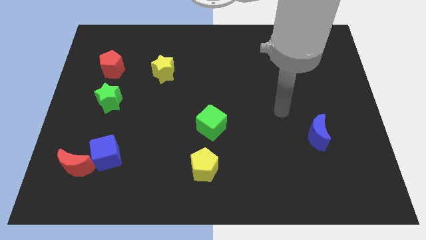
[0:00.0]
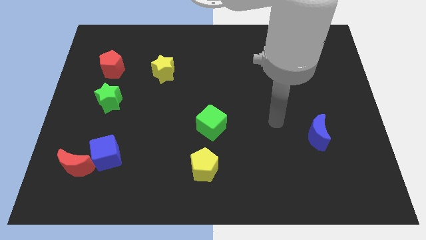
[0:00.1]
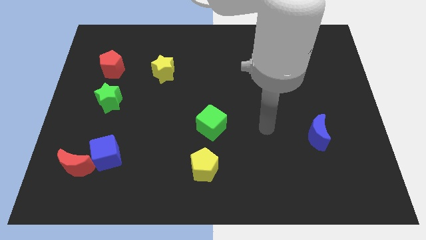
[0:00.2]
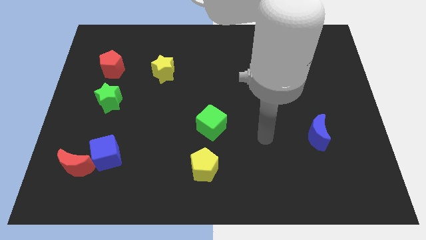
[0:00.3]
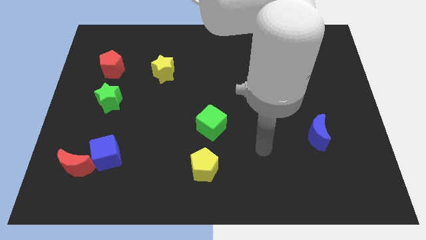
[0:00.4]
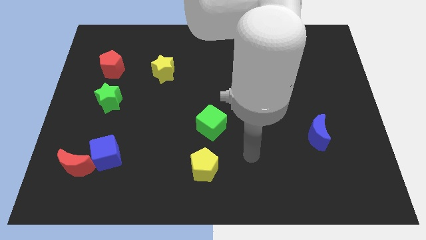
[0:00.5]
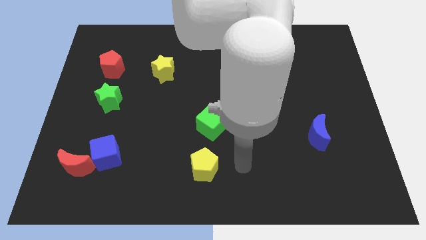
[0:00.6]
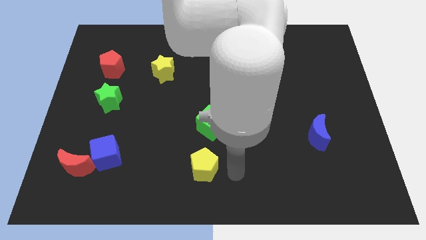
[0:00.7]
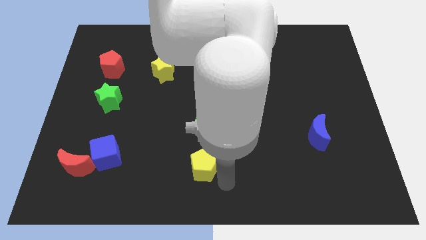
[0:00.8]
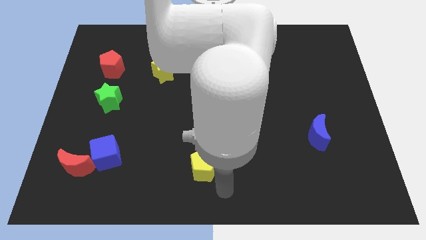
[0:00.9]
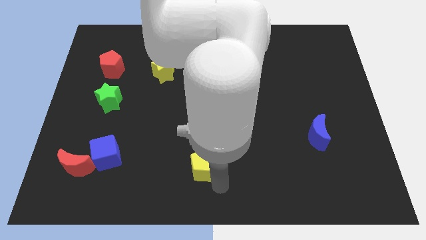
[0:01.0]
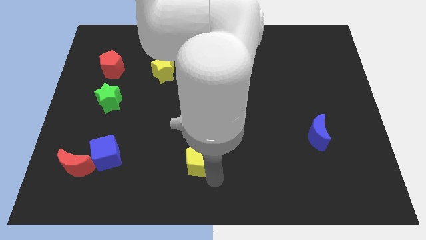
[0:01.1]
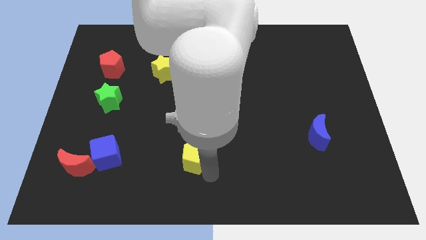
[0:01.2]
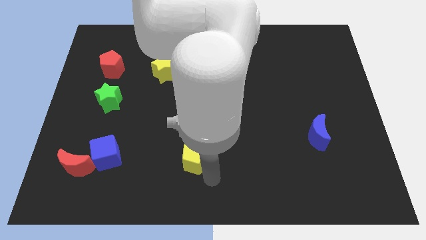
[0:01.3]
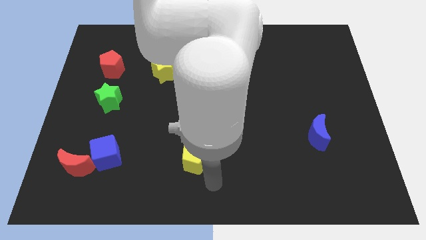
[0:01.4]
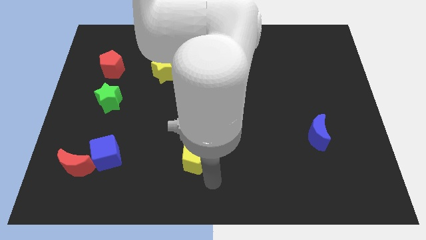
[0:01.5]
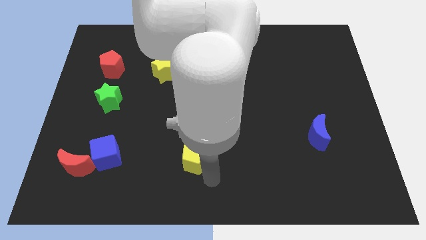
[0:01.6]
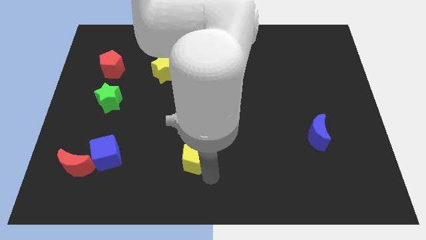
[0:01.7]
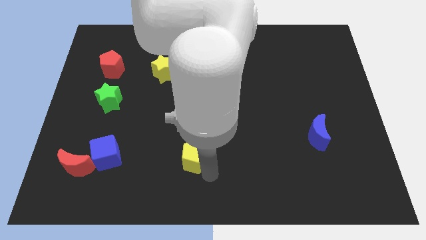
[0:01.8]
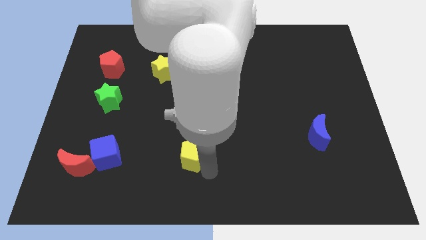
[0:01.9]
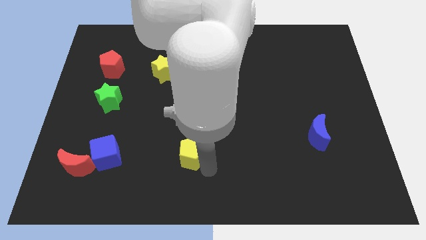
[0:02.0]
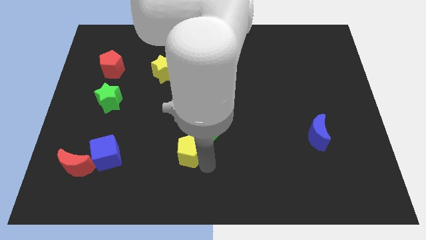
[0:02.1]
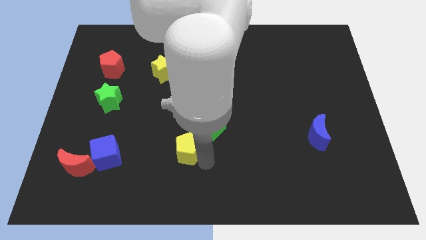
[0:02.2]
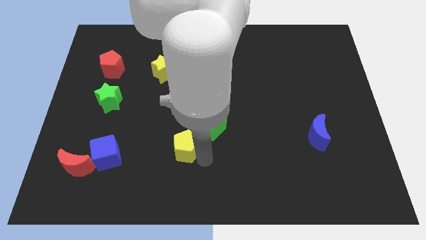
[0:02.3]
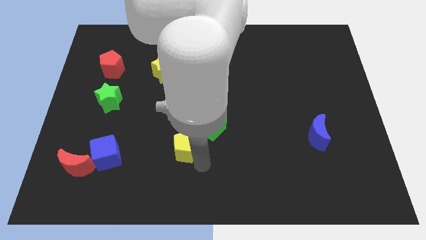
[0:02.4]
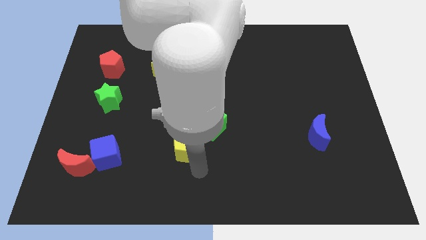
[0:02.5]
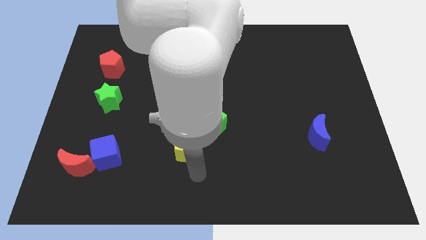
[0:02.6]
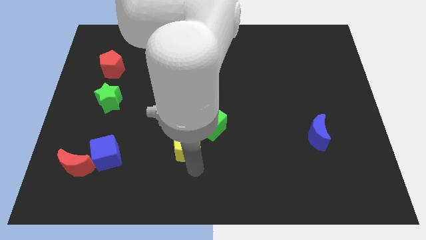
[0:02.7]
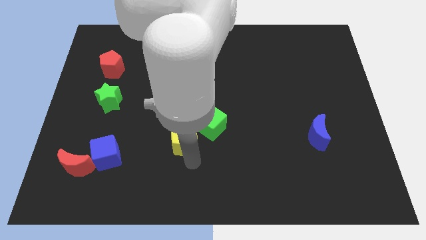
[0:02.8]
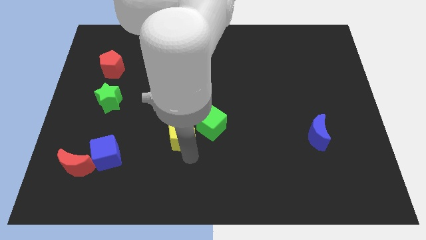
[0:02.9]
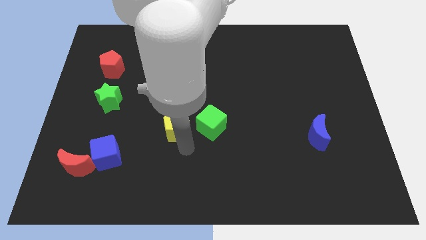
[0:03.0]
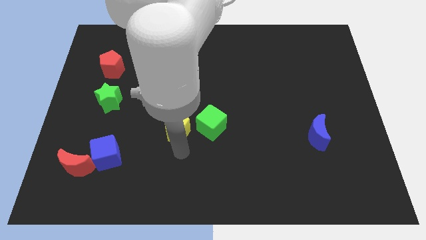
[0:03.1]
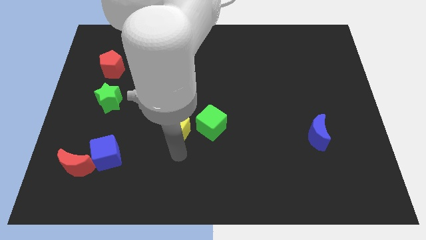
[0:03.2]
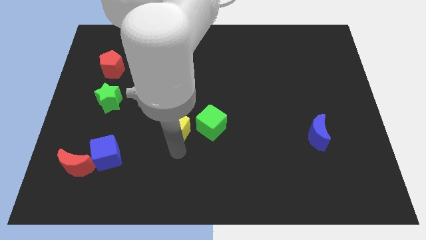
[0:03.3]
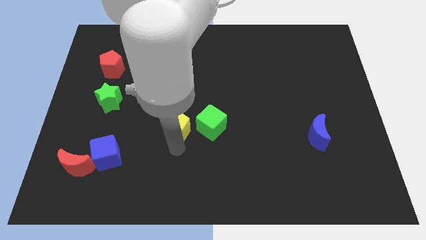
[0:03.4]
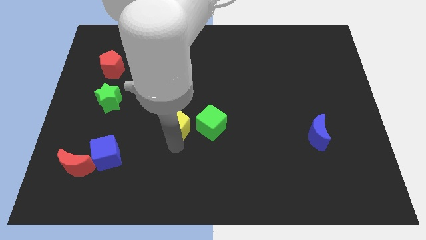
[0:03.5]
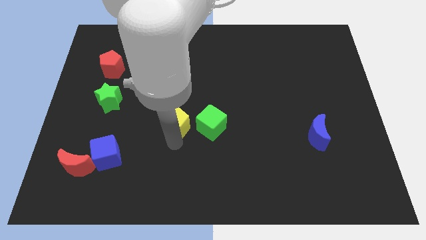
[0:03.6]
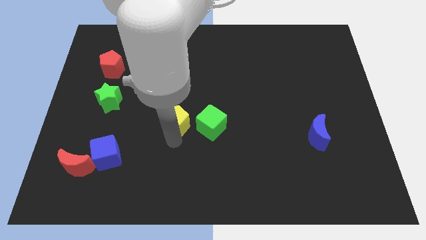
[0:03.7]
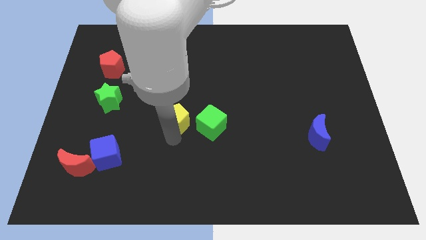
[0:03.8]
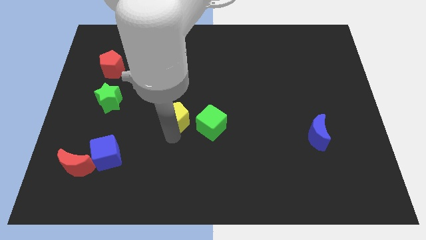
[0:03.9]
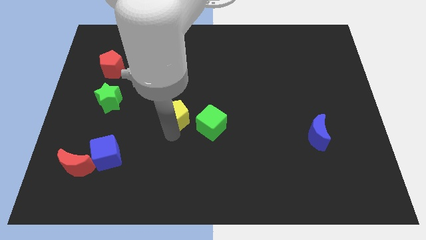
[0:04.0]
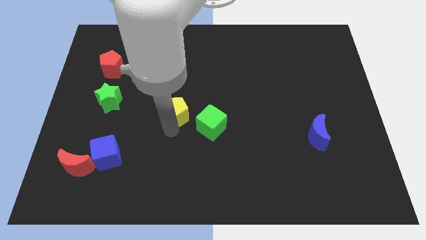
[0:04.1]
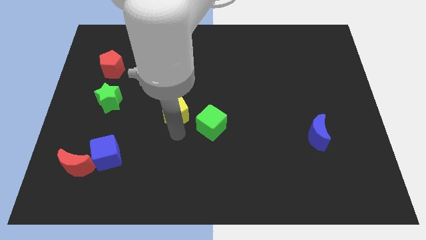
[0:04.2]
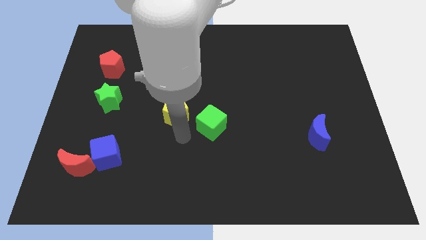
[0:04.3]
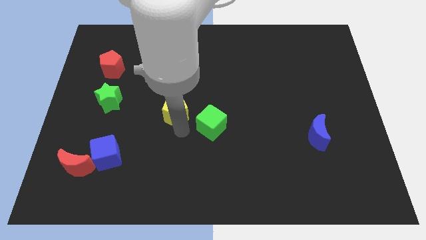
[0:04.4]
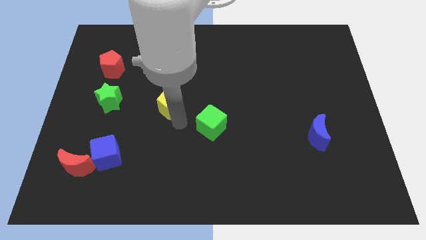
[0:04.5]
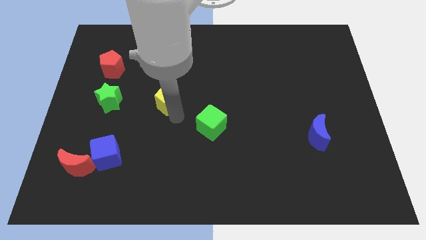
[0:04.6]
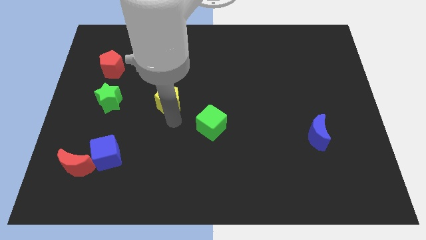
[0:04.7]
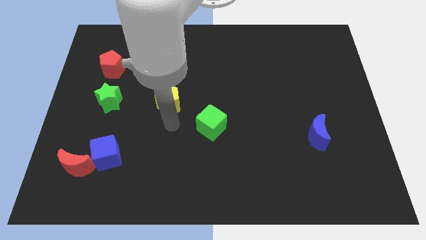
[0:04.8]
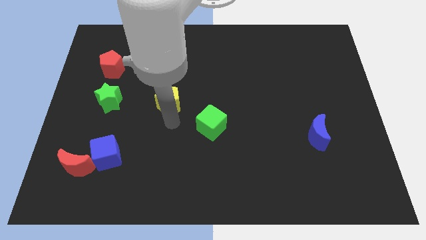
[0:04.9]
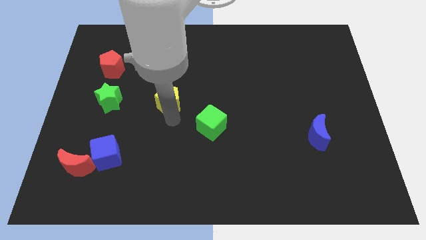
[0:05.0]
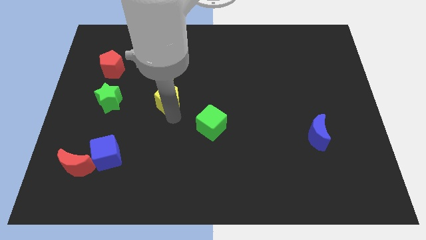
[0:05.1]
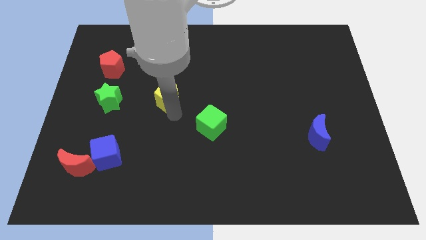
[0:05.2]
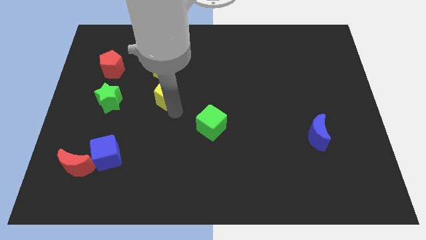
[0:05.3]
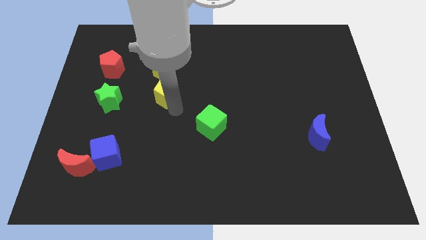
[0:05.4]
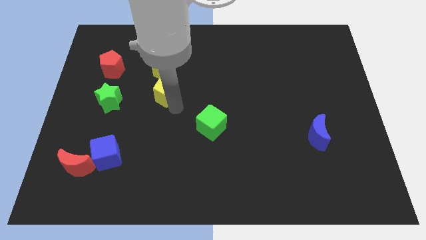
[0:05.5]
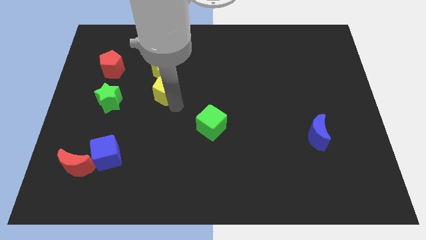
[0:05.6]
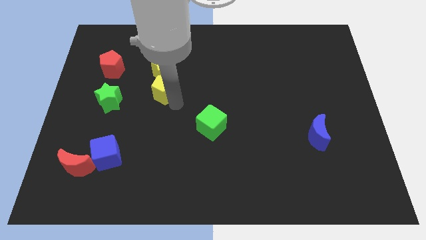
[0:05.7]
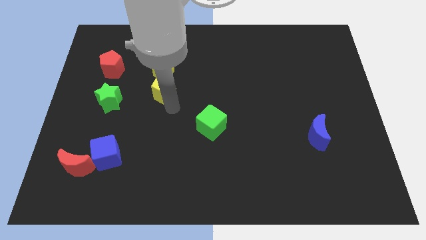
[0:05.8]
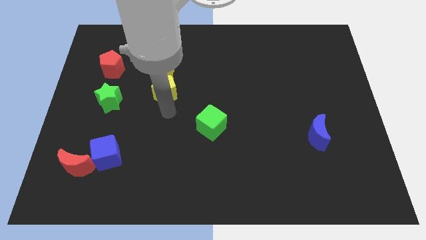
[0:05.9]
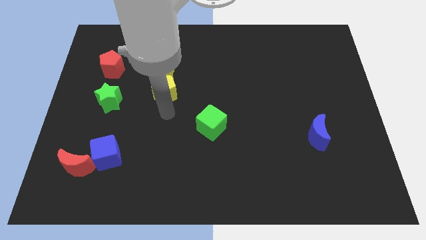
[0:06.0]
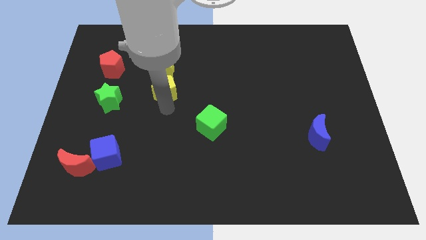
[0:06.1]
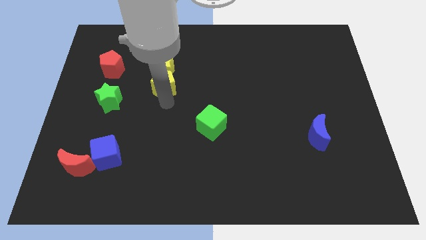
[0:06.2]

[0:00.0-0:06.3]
slide the yellow pentagon to the yellow star

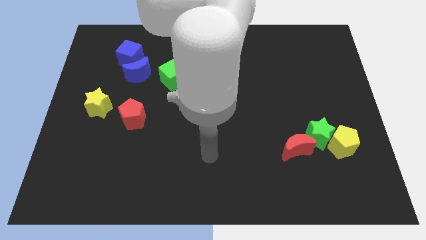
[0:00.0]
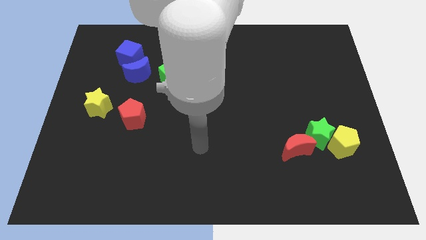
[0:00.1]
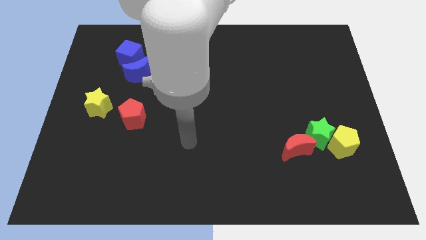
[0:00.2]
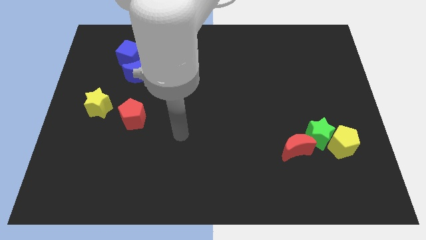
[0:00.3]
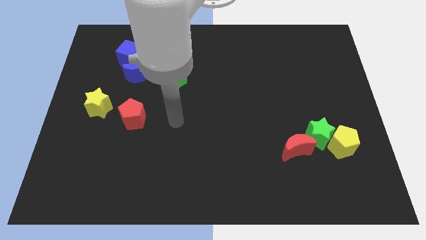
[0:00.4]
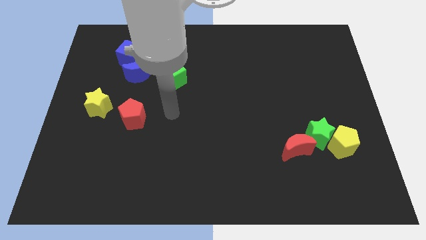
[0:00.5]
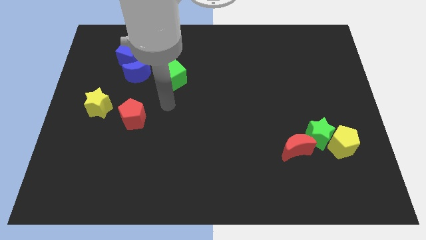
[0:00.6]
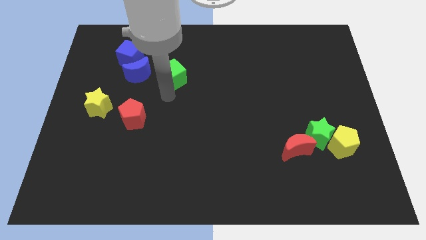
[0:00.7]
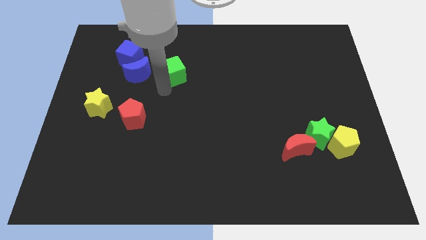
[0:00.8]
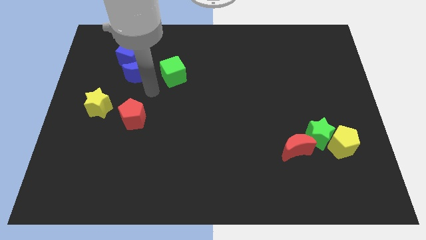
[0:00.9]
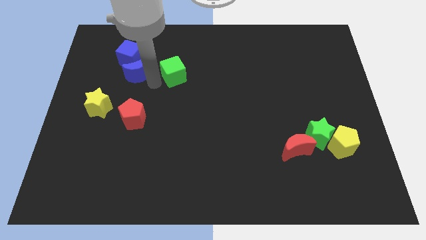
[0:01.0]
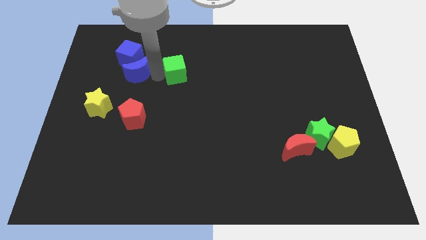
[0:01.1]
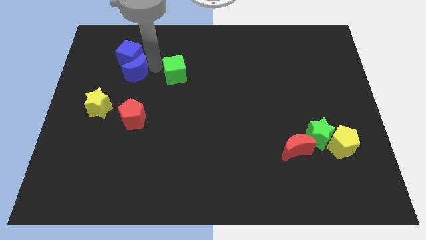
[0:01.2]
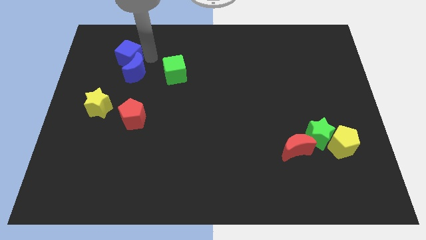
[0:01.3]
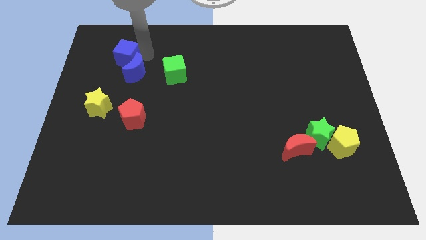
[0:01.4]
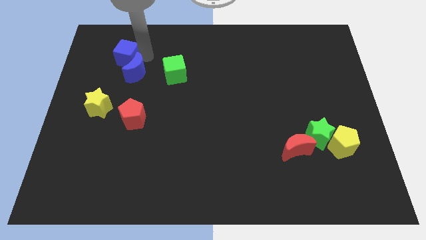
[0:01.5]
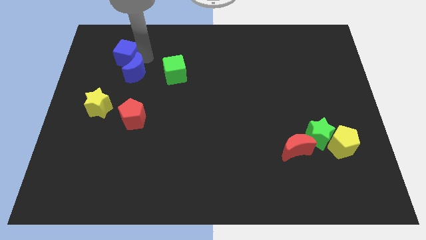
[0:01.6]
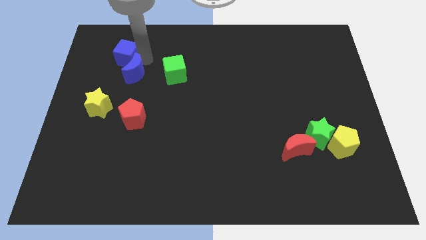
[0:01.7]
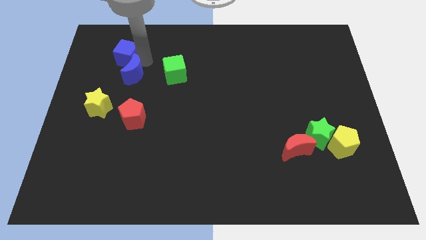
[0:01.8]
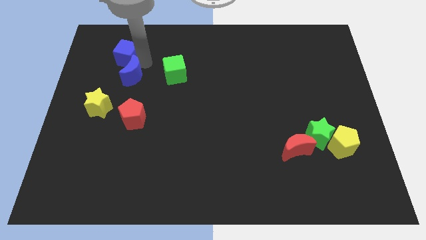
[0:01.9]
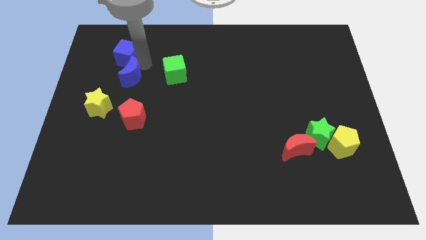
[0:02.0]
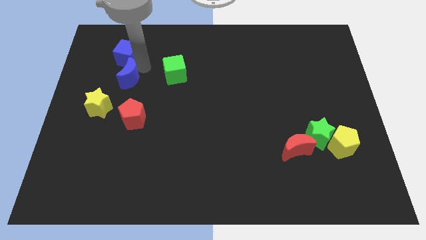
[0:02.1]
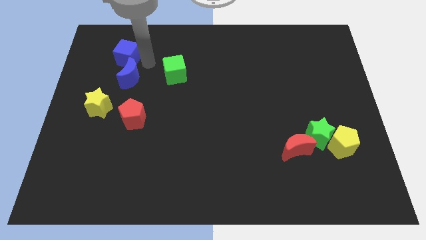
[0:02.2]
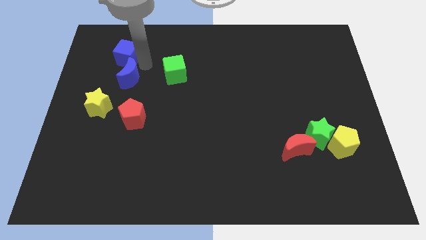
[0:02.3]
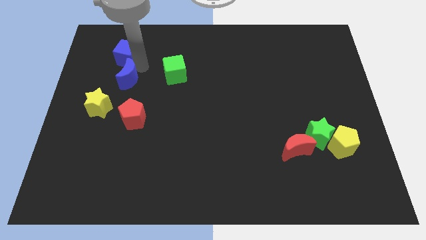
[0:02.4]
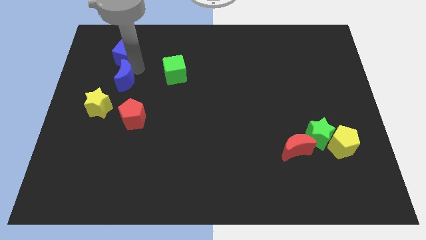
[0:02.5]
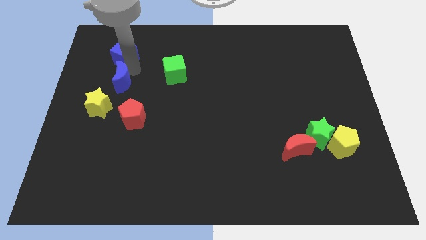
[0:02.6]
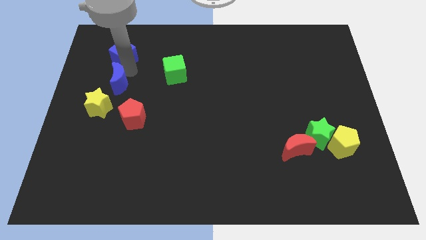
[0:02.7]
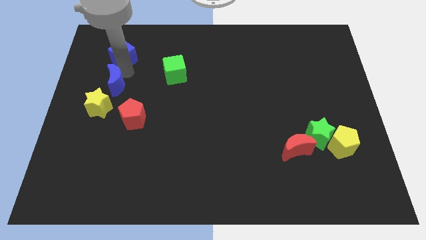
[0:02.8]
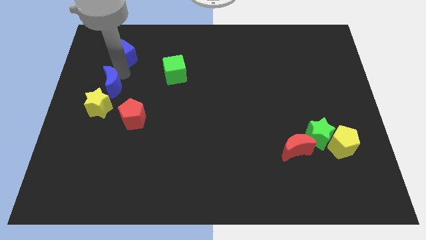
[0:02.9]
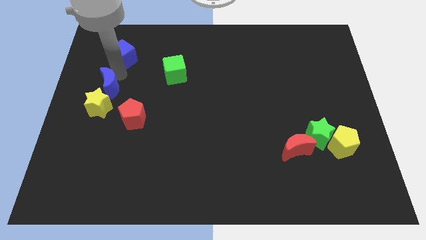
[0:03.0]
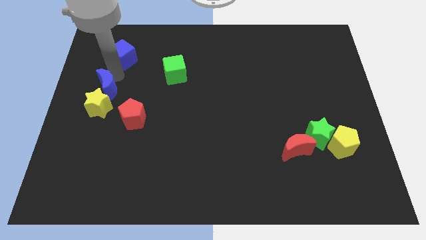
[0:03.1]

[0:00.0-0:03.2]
put the blue moon to the yellow star
